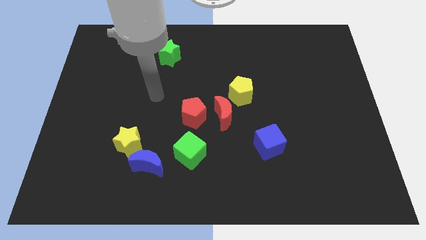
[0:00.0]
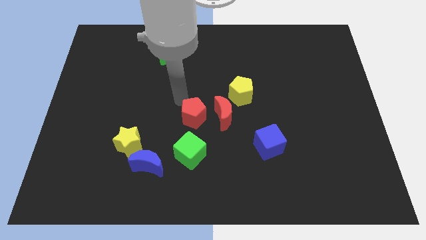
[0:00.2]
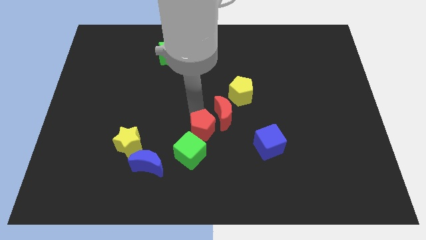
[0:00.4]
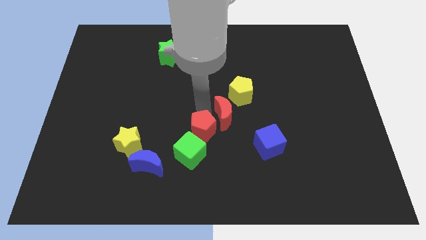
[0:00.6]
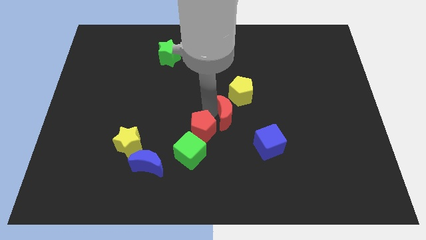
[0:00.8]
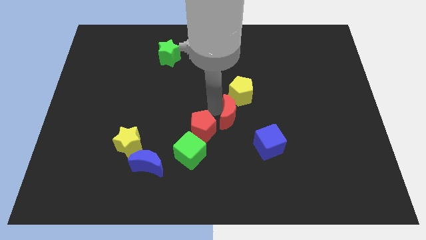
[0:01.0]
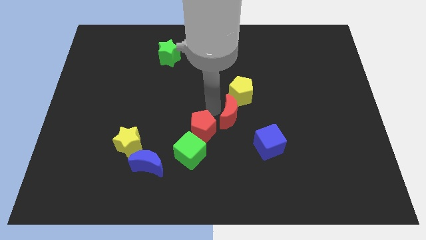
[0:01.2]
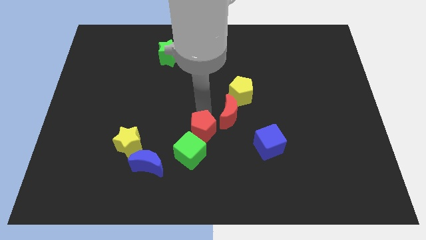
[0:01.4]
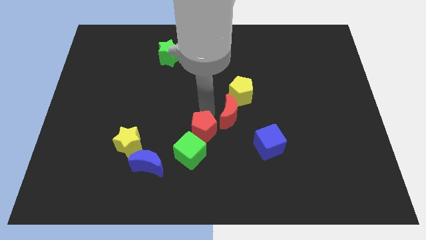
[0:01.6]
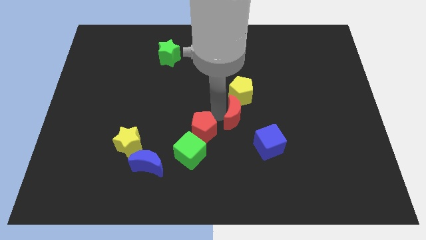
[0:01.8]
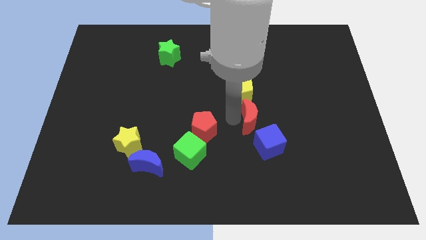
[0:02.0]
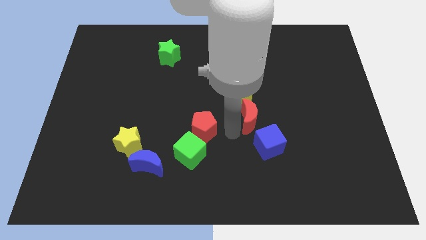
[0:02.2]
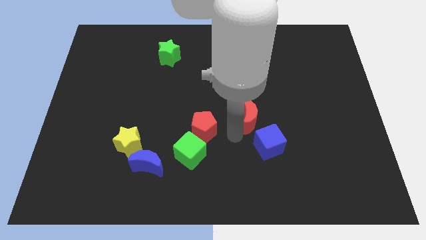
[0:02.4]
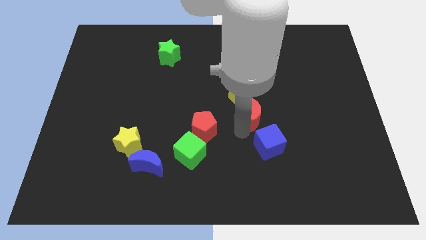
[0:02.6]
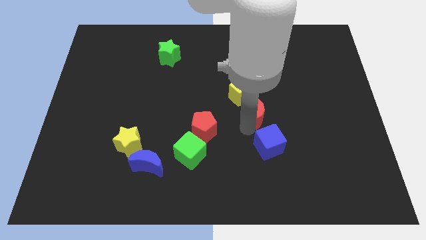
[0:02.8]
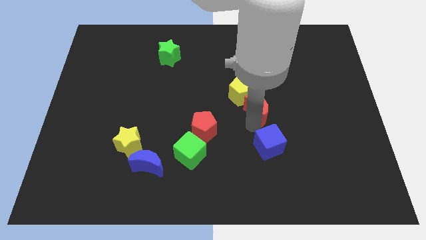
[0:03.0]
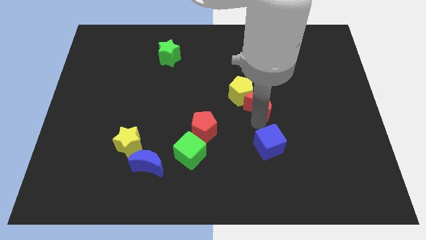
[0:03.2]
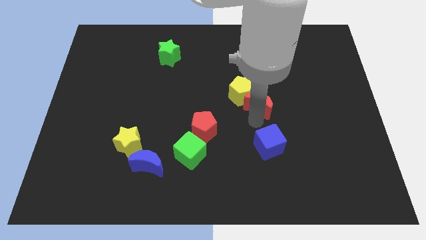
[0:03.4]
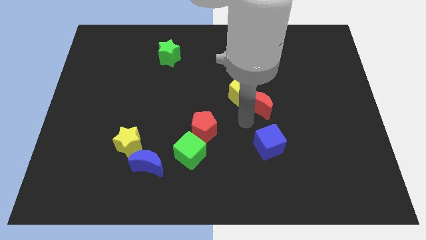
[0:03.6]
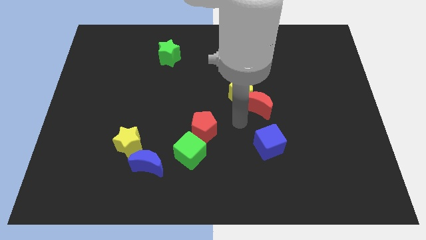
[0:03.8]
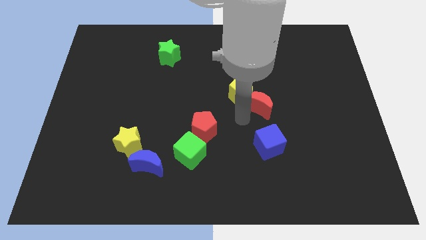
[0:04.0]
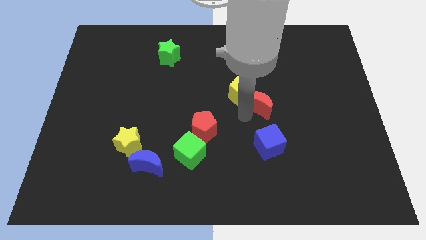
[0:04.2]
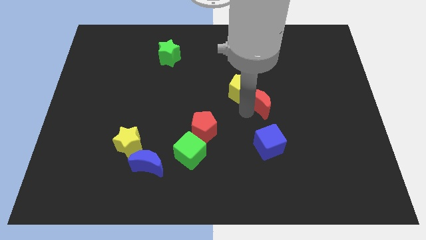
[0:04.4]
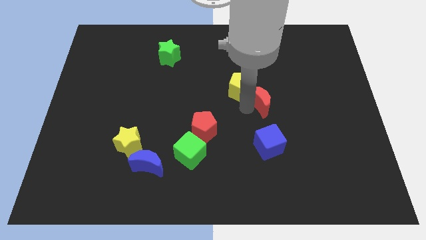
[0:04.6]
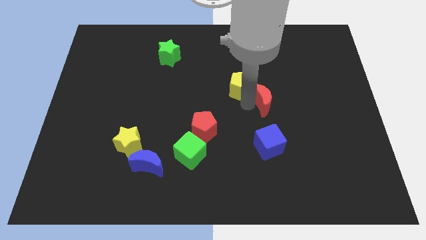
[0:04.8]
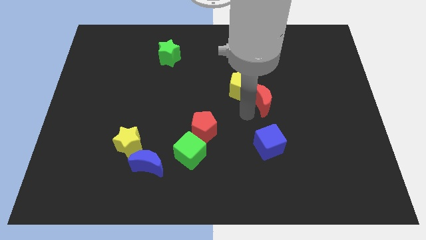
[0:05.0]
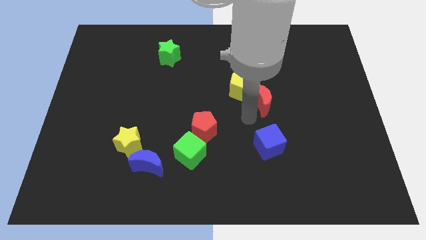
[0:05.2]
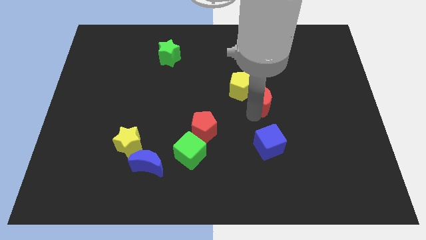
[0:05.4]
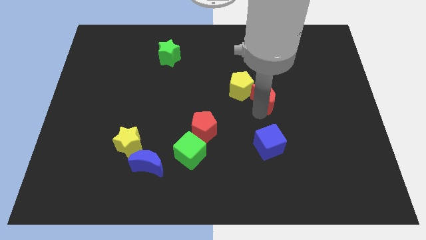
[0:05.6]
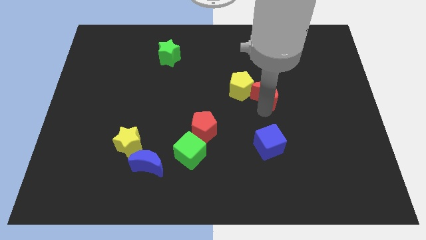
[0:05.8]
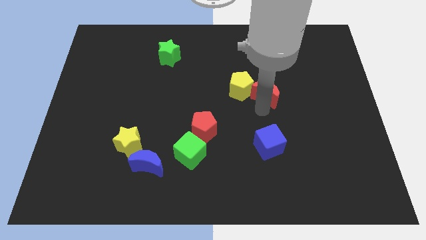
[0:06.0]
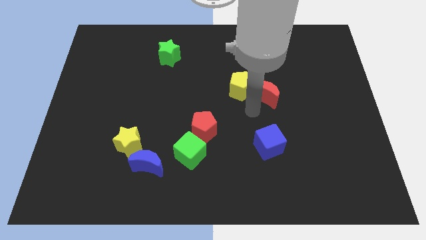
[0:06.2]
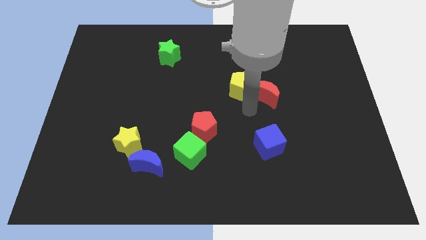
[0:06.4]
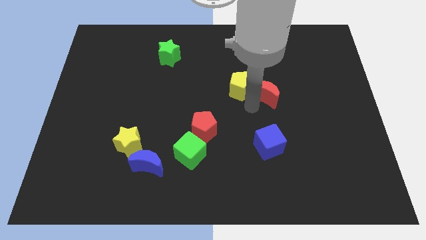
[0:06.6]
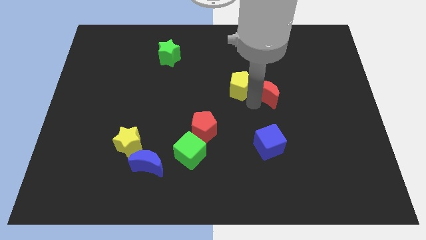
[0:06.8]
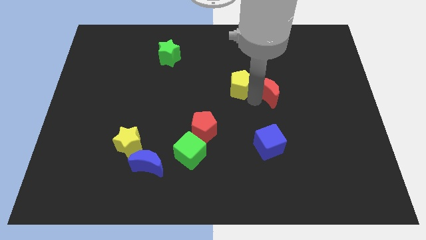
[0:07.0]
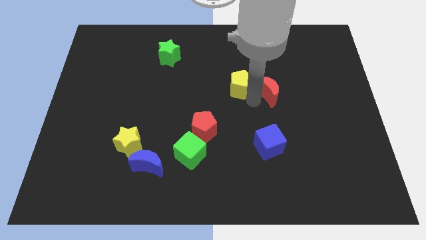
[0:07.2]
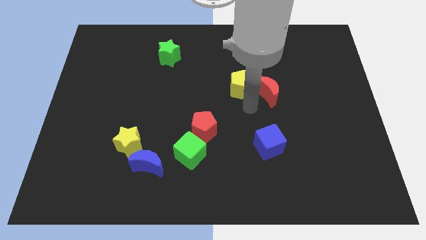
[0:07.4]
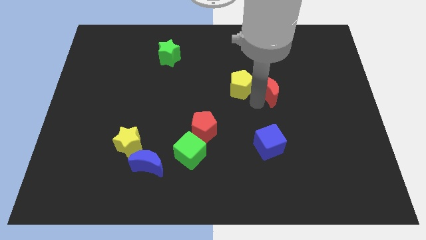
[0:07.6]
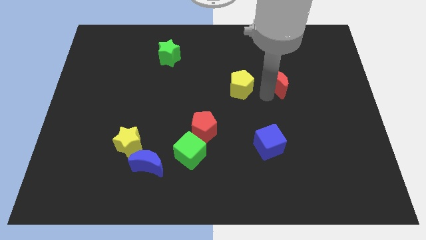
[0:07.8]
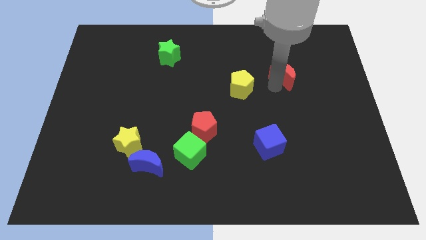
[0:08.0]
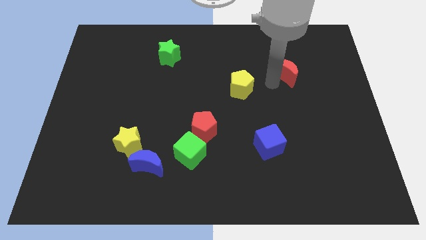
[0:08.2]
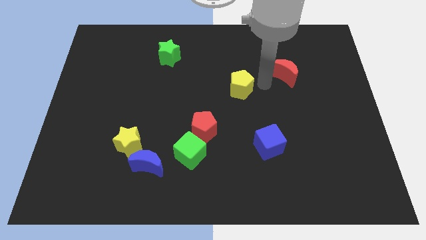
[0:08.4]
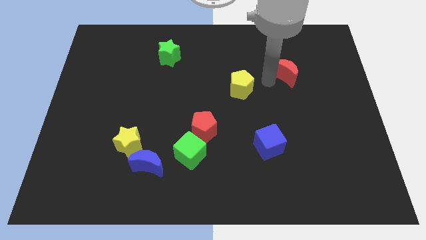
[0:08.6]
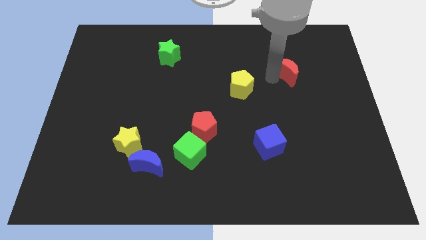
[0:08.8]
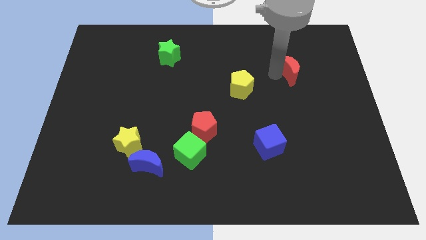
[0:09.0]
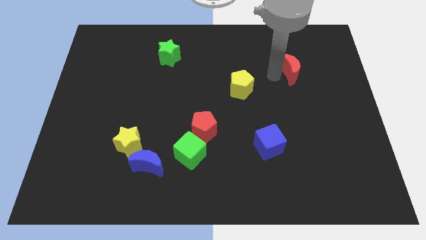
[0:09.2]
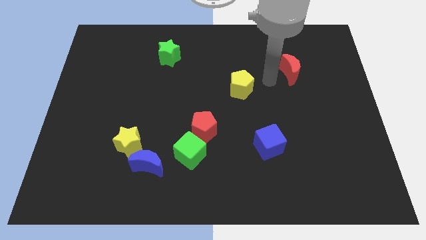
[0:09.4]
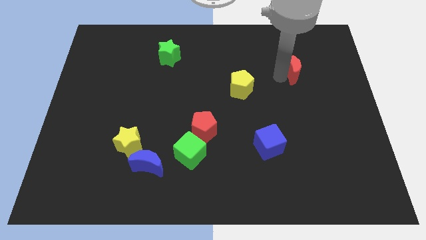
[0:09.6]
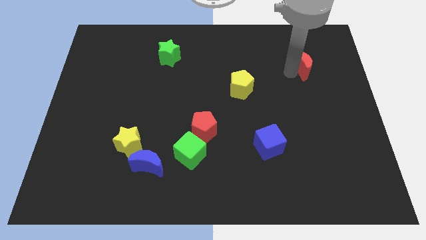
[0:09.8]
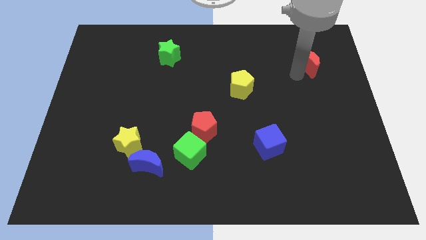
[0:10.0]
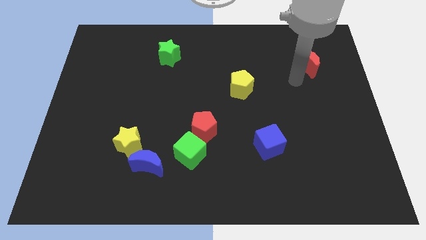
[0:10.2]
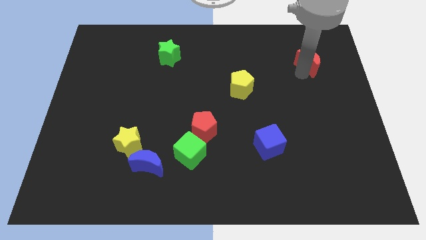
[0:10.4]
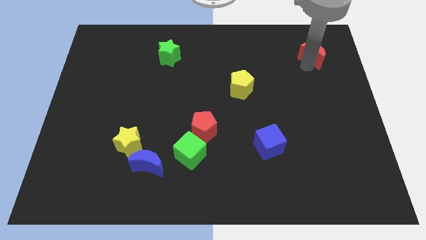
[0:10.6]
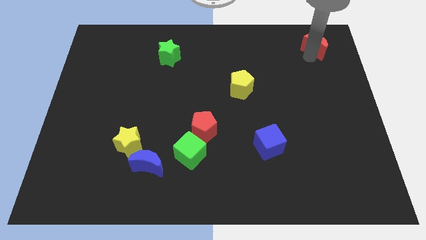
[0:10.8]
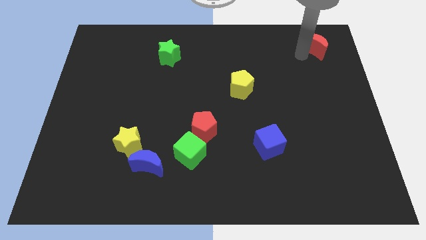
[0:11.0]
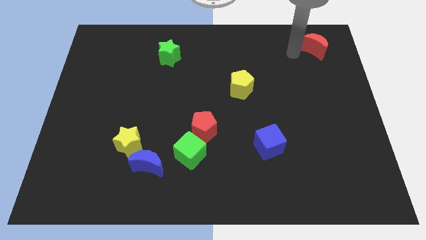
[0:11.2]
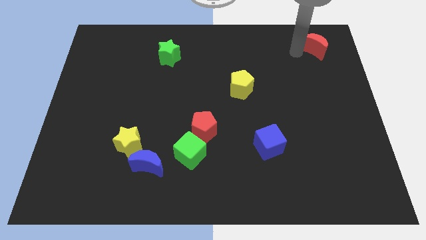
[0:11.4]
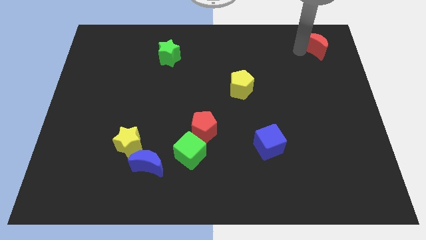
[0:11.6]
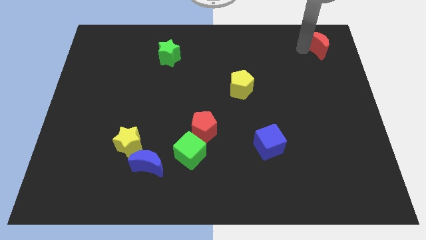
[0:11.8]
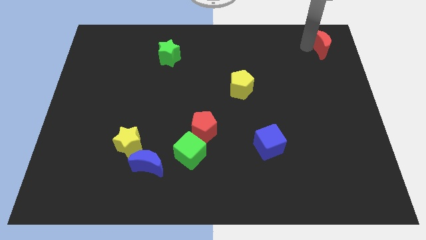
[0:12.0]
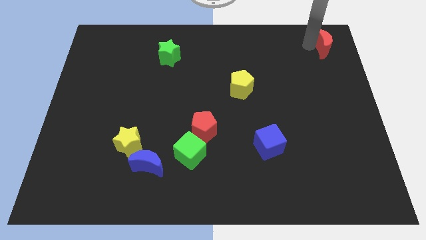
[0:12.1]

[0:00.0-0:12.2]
push the red moon to the upper right corner
